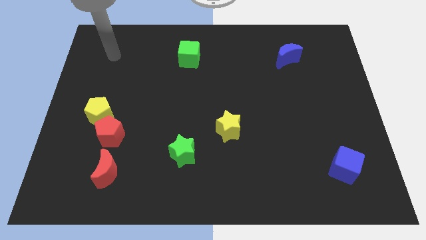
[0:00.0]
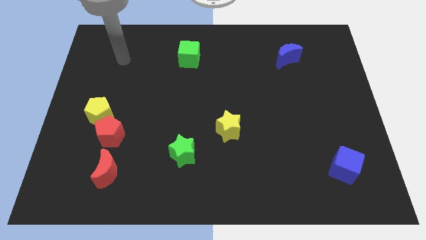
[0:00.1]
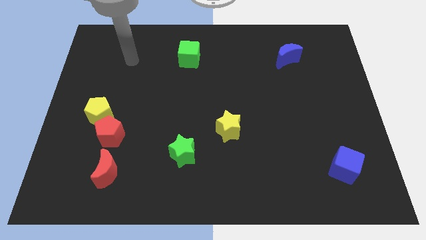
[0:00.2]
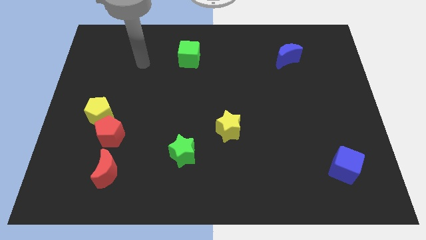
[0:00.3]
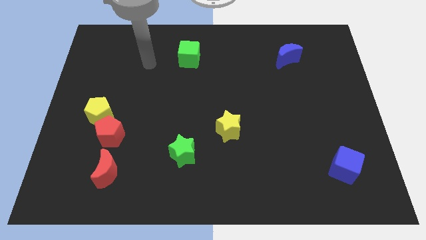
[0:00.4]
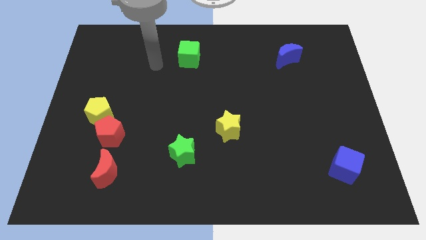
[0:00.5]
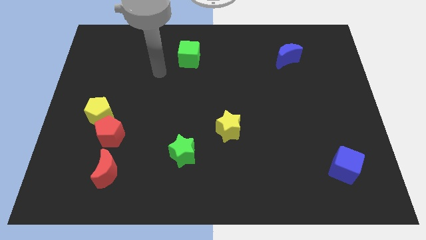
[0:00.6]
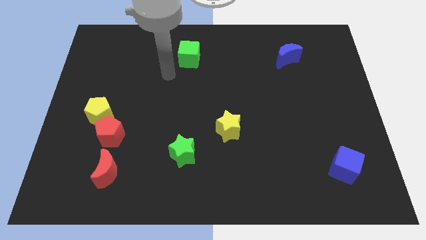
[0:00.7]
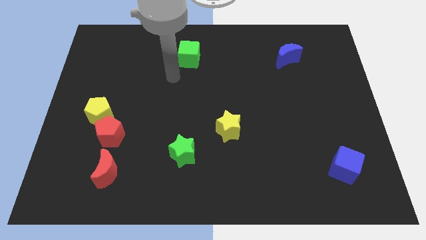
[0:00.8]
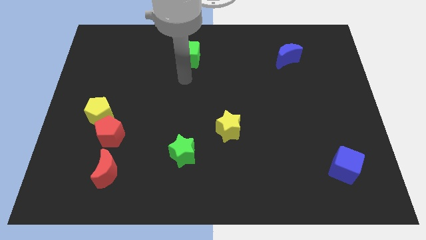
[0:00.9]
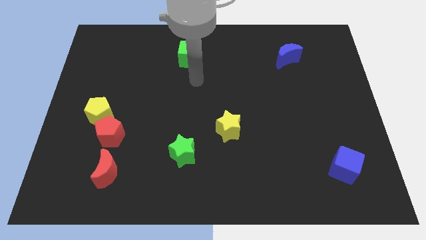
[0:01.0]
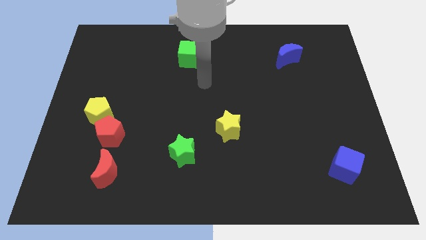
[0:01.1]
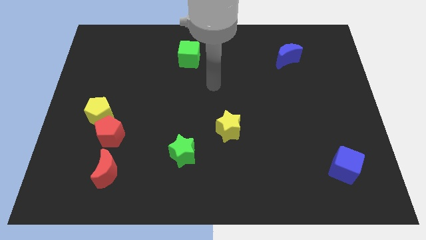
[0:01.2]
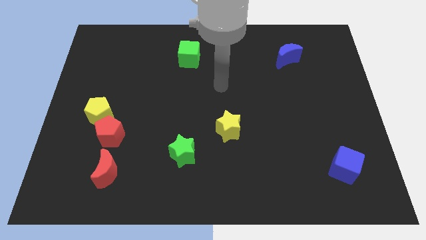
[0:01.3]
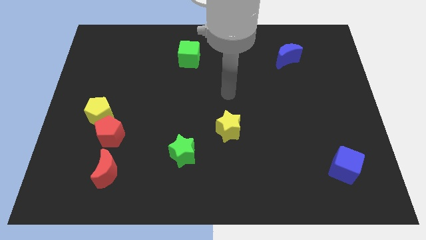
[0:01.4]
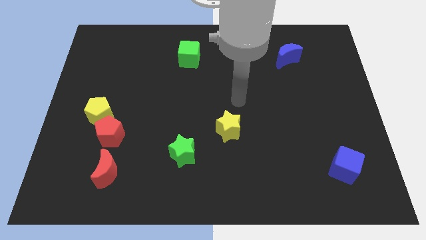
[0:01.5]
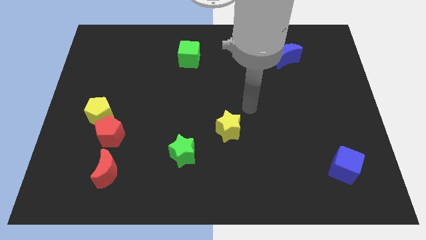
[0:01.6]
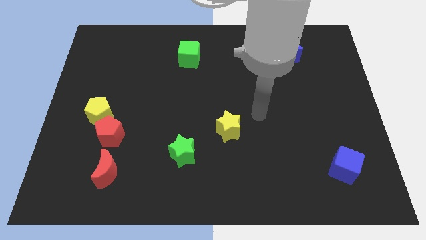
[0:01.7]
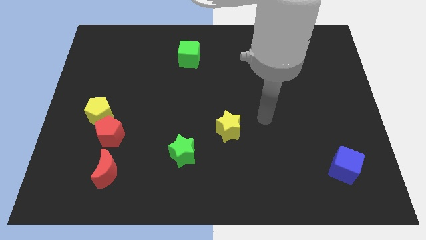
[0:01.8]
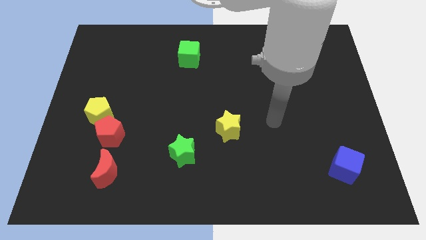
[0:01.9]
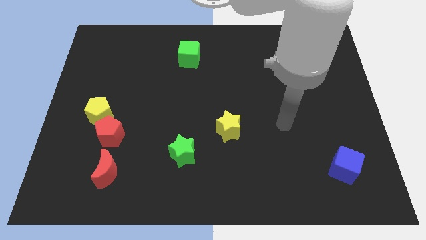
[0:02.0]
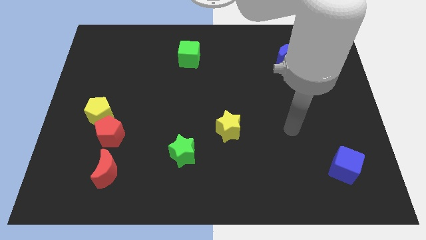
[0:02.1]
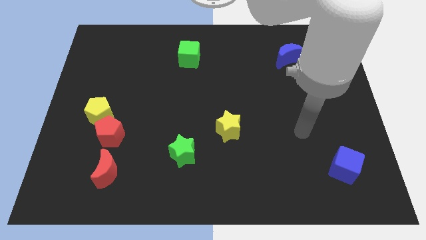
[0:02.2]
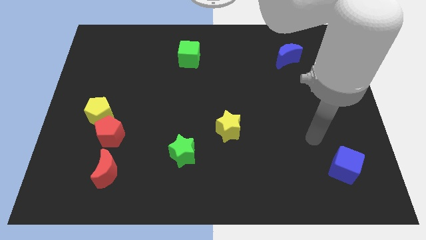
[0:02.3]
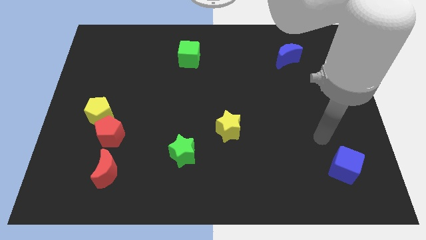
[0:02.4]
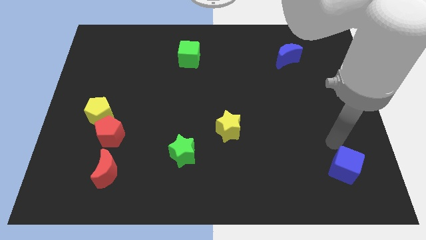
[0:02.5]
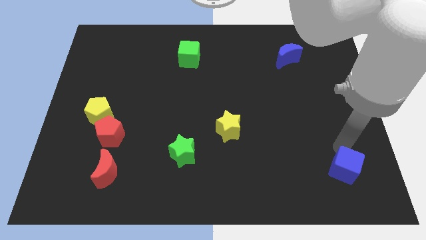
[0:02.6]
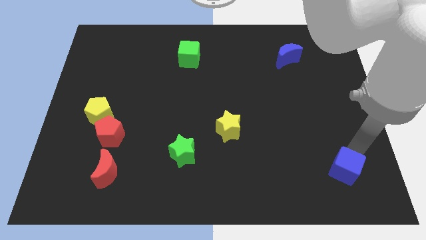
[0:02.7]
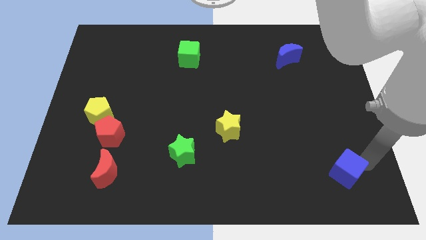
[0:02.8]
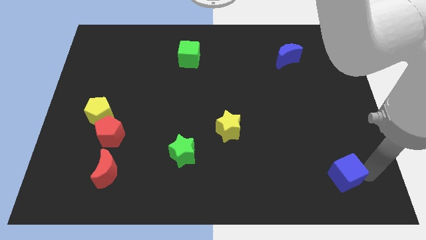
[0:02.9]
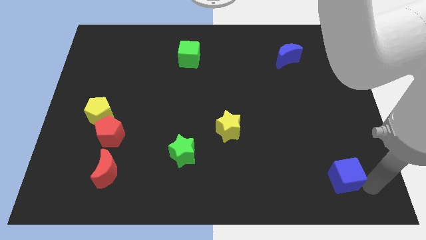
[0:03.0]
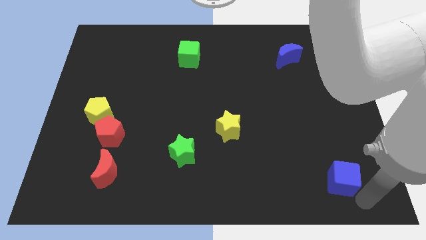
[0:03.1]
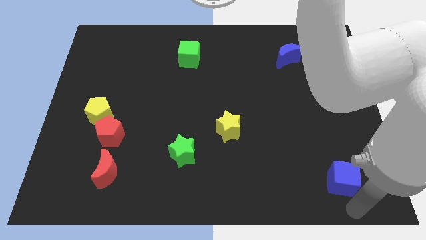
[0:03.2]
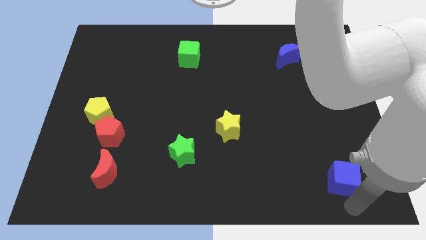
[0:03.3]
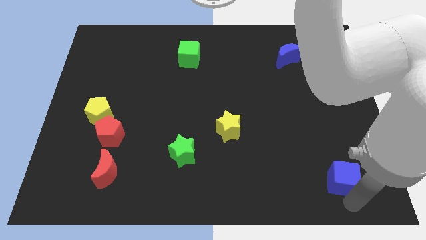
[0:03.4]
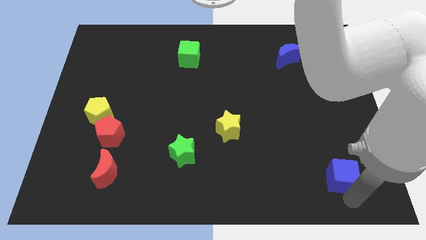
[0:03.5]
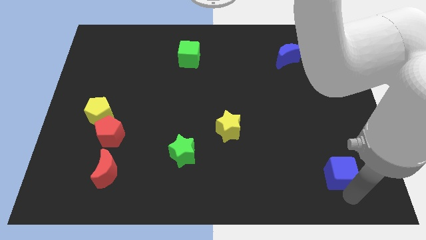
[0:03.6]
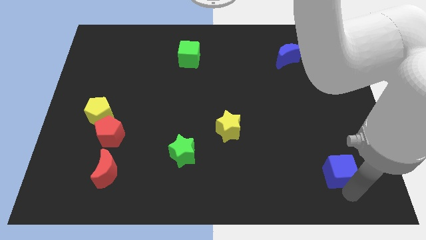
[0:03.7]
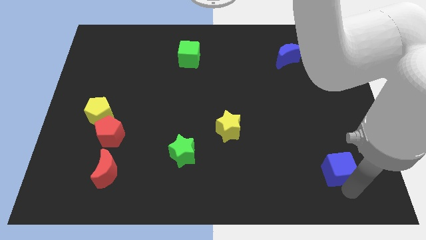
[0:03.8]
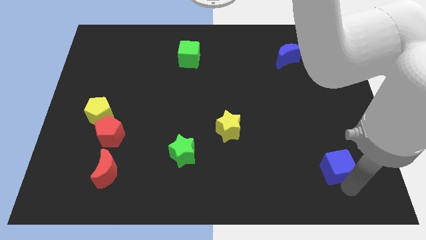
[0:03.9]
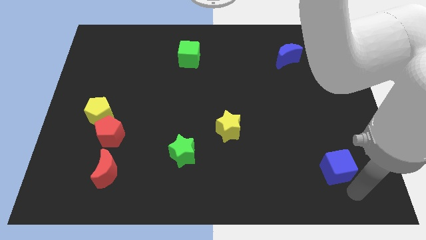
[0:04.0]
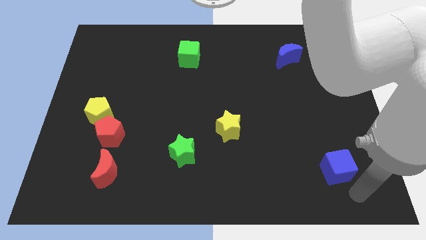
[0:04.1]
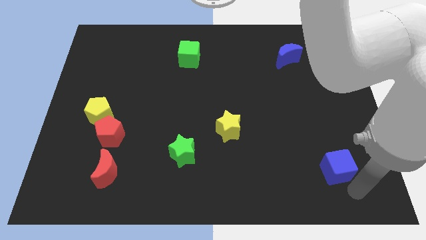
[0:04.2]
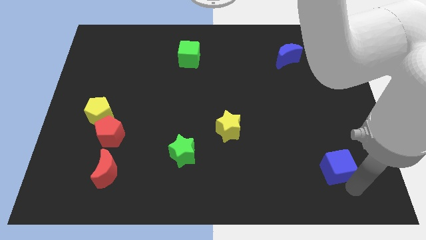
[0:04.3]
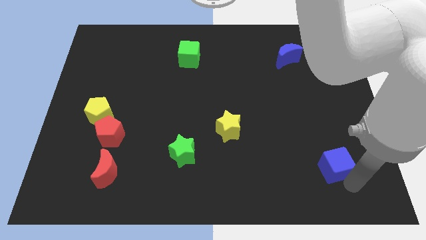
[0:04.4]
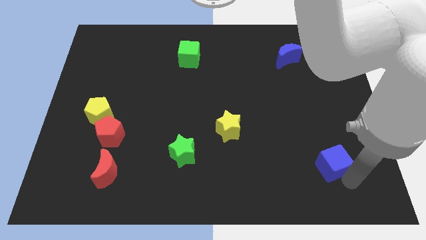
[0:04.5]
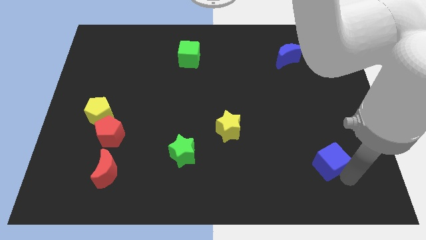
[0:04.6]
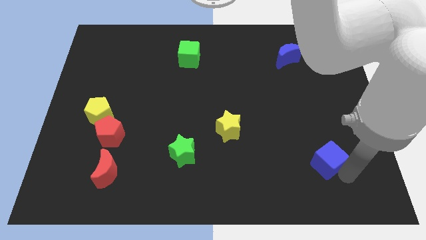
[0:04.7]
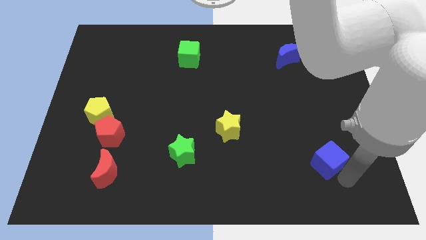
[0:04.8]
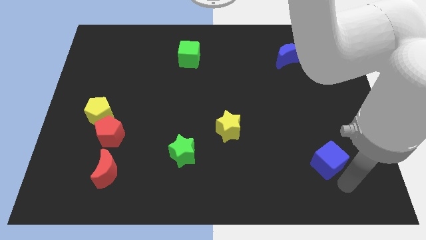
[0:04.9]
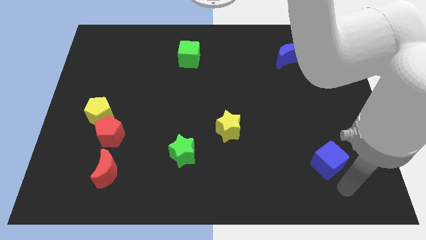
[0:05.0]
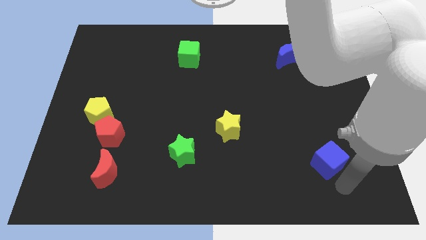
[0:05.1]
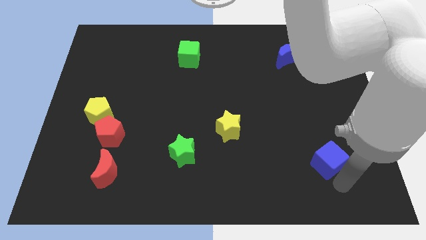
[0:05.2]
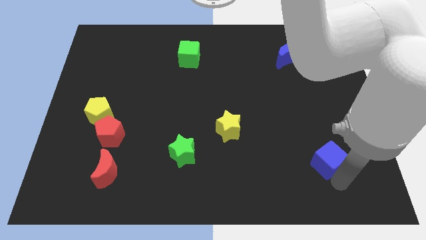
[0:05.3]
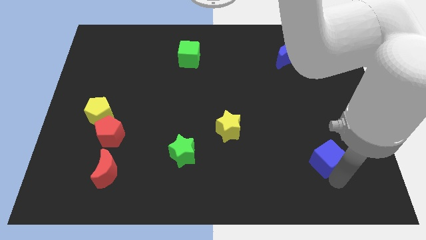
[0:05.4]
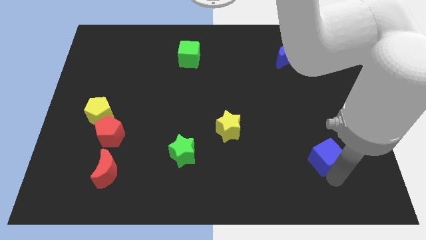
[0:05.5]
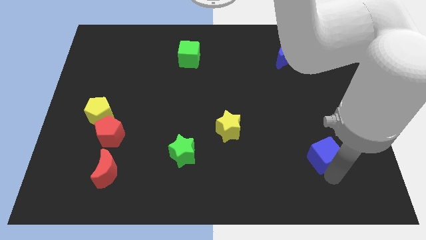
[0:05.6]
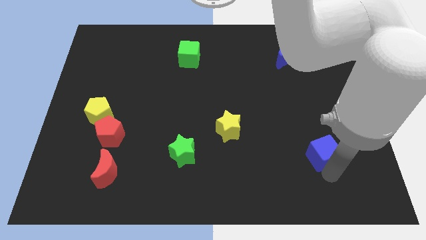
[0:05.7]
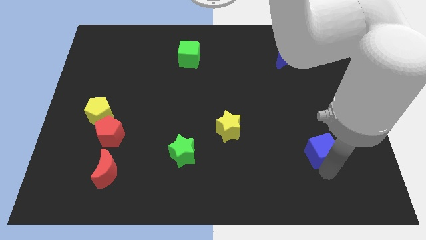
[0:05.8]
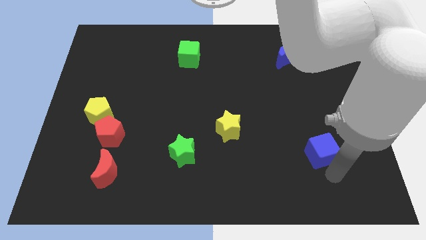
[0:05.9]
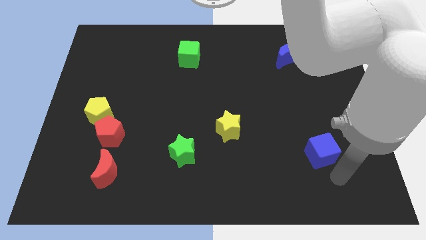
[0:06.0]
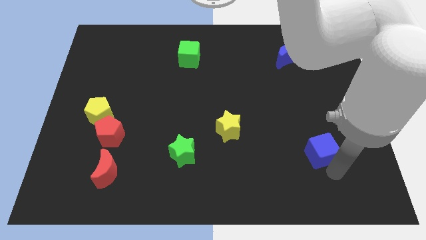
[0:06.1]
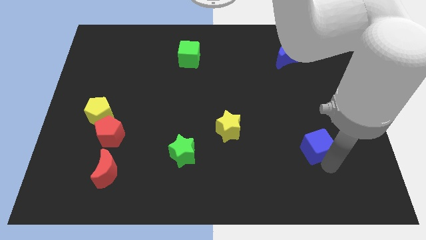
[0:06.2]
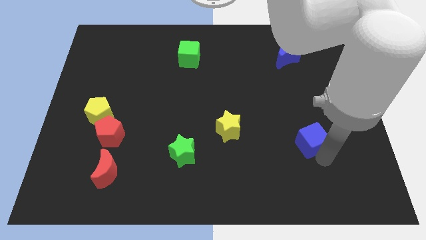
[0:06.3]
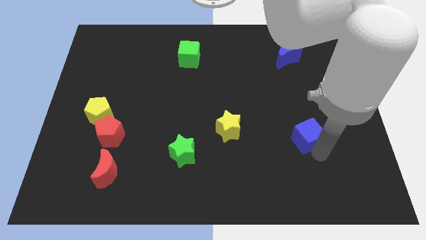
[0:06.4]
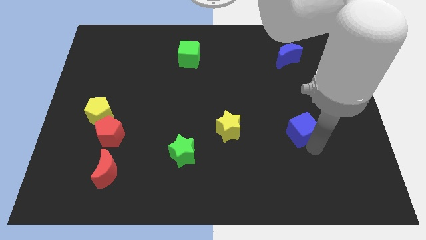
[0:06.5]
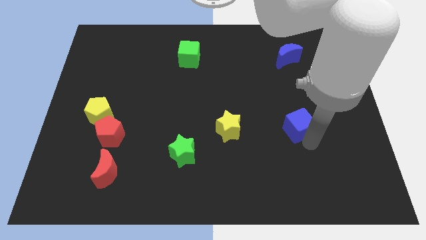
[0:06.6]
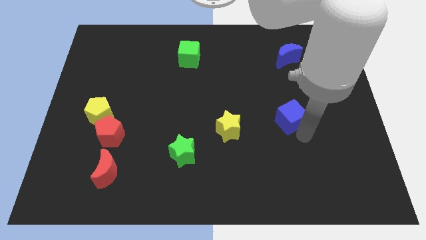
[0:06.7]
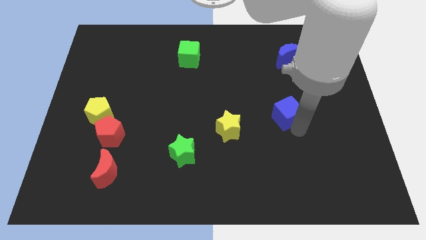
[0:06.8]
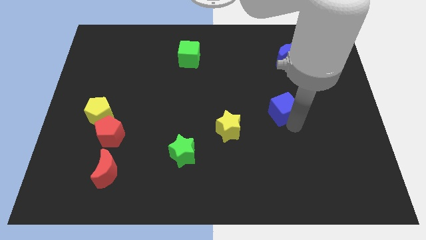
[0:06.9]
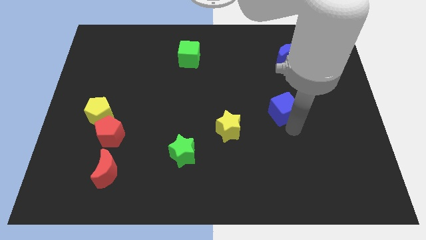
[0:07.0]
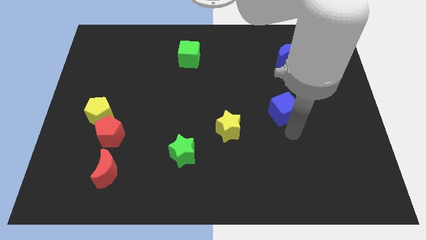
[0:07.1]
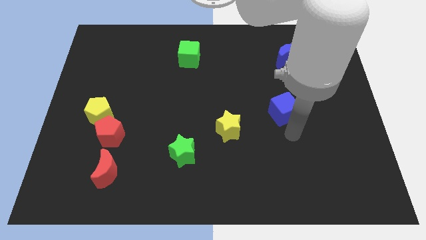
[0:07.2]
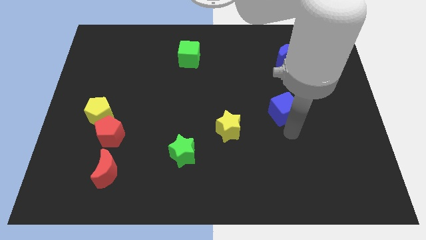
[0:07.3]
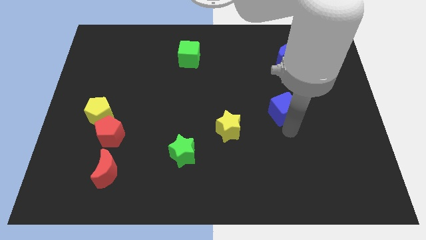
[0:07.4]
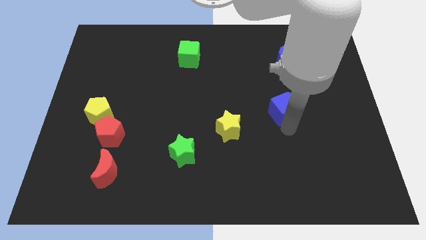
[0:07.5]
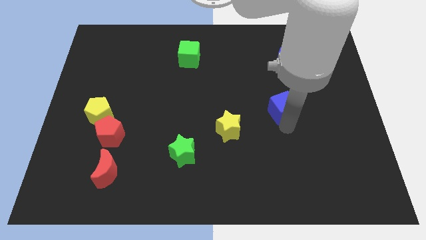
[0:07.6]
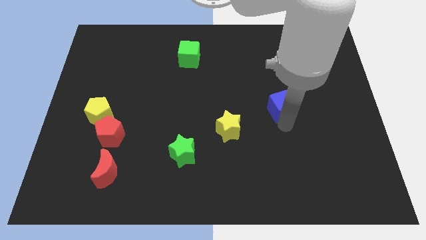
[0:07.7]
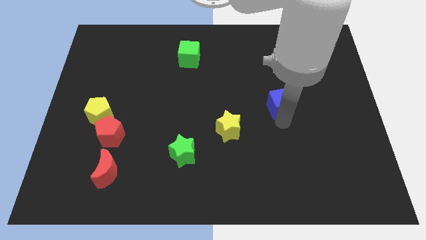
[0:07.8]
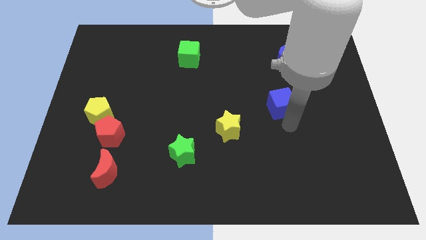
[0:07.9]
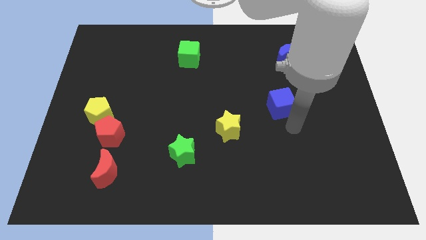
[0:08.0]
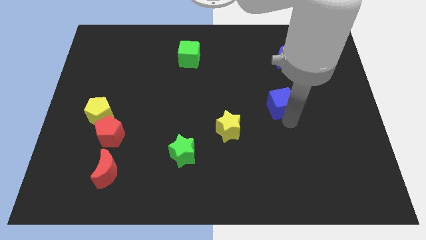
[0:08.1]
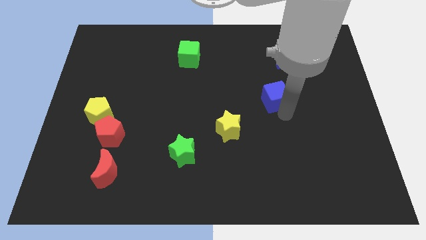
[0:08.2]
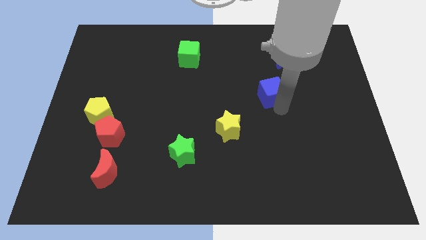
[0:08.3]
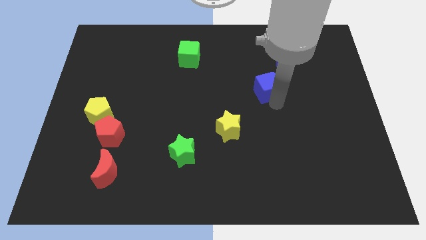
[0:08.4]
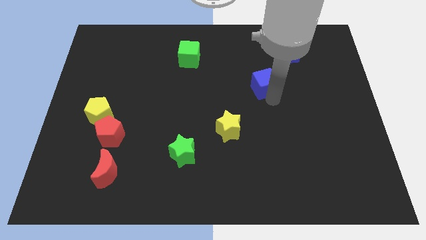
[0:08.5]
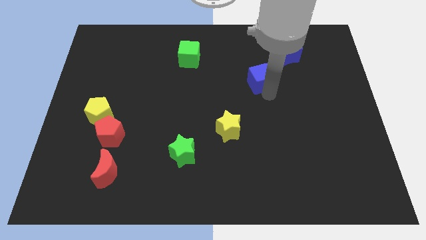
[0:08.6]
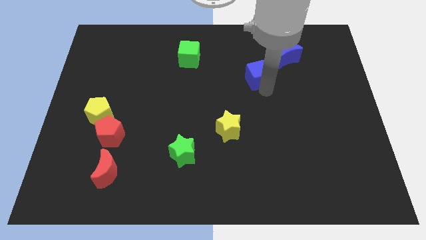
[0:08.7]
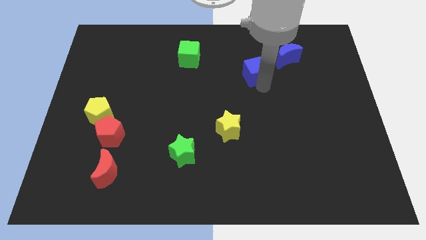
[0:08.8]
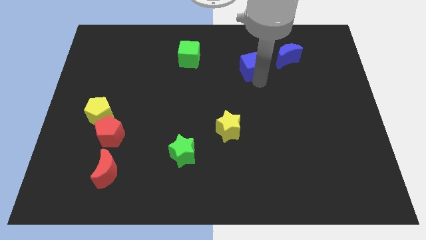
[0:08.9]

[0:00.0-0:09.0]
move the blue cube just left of the blue moon
